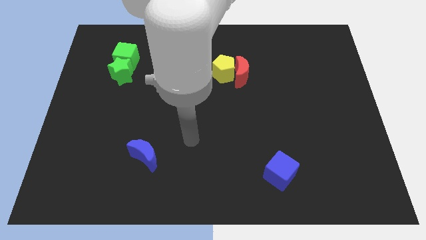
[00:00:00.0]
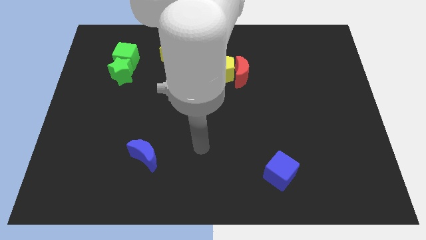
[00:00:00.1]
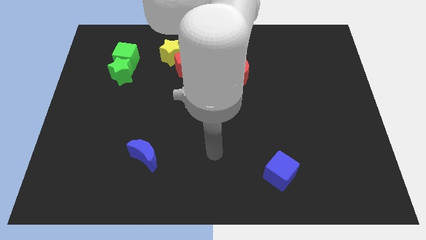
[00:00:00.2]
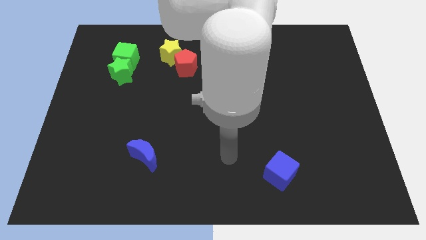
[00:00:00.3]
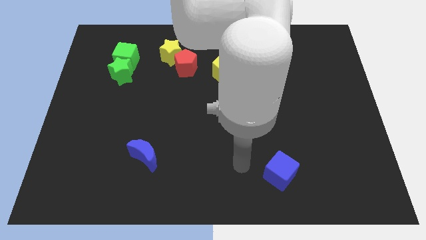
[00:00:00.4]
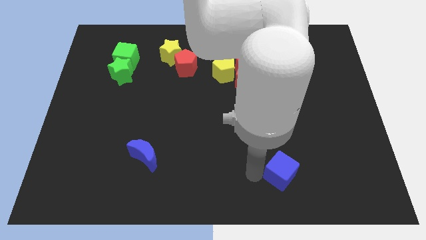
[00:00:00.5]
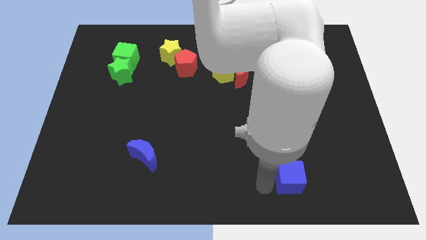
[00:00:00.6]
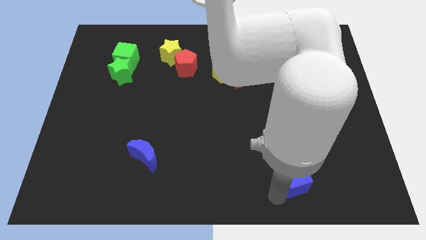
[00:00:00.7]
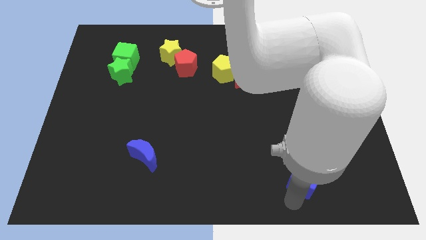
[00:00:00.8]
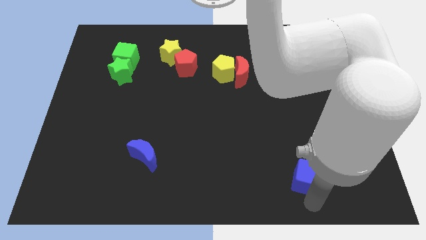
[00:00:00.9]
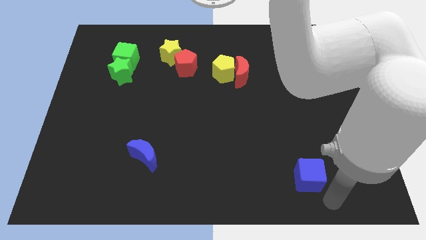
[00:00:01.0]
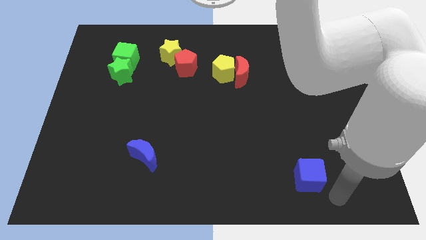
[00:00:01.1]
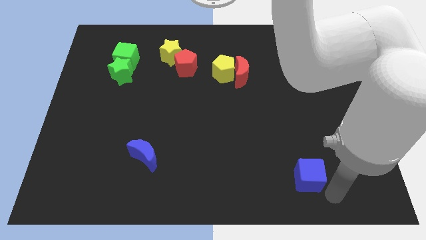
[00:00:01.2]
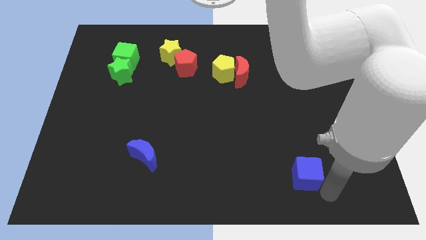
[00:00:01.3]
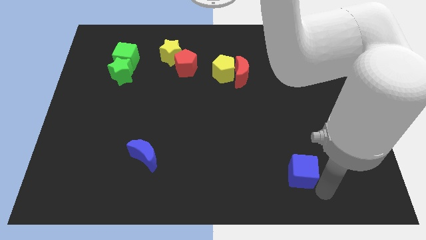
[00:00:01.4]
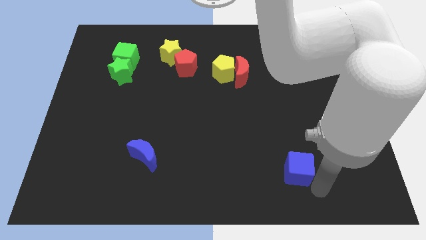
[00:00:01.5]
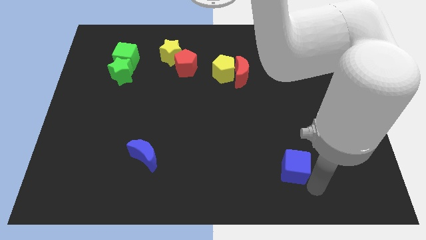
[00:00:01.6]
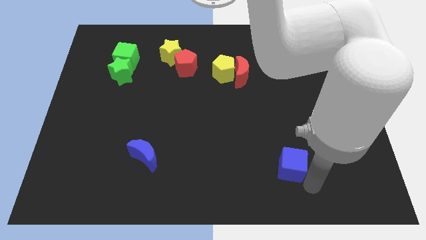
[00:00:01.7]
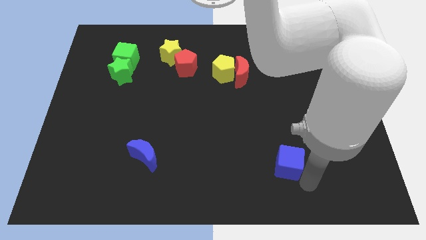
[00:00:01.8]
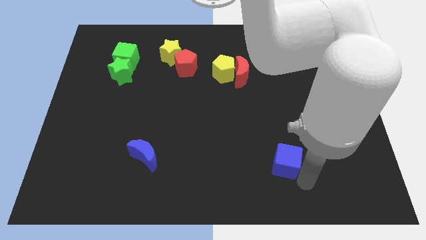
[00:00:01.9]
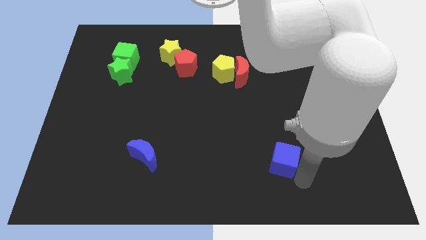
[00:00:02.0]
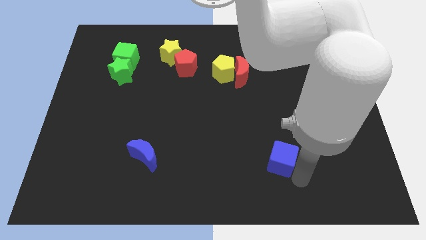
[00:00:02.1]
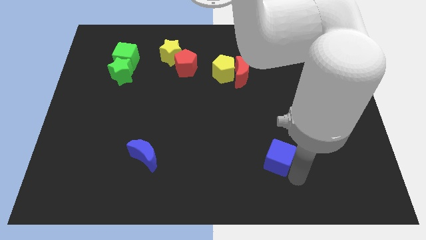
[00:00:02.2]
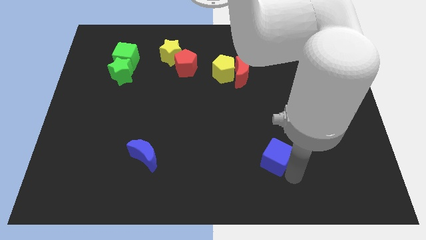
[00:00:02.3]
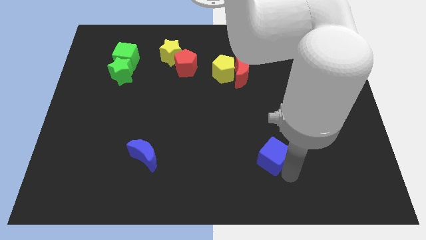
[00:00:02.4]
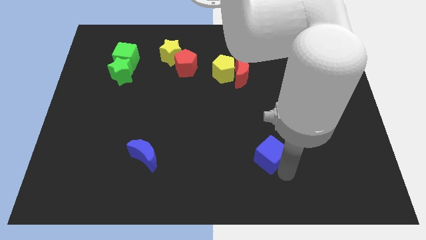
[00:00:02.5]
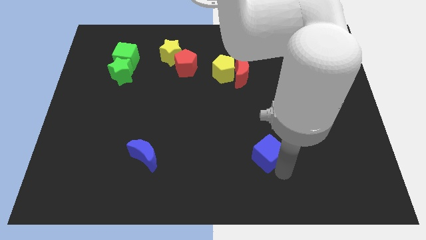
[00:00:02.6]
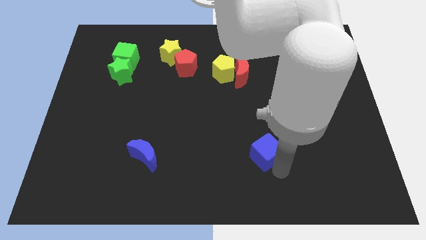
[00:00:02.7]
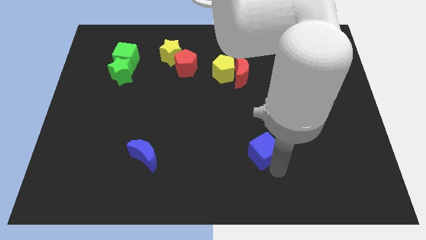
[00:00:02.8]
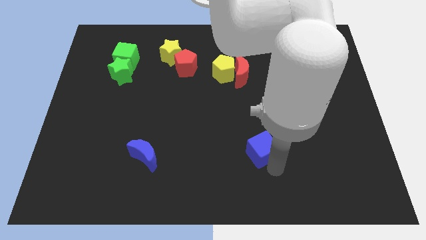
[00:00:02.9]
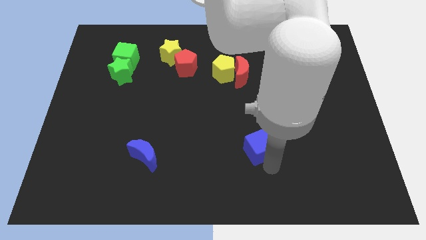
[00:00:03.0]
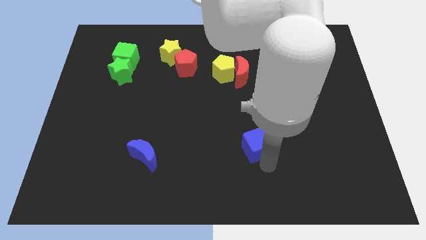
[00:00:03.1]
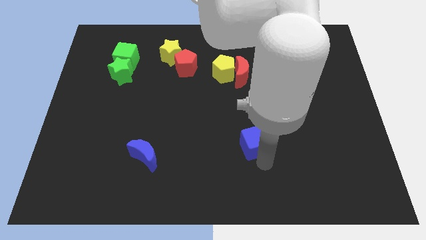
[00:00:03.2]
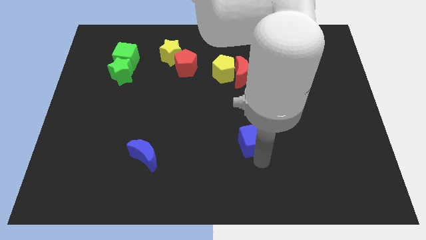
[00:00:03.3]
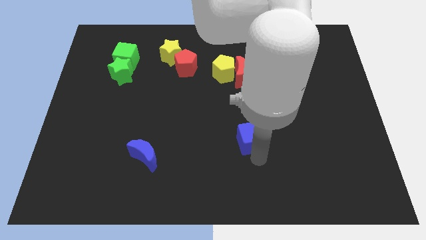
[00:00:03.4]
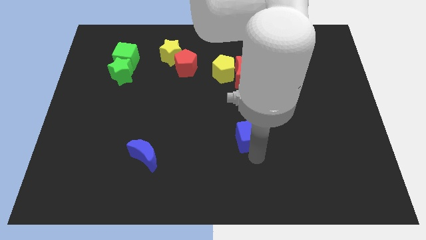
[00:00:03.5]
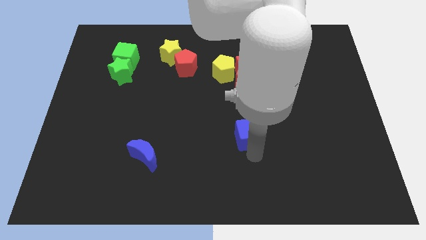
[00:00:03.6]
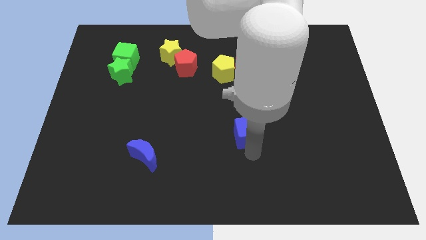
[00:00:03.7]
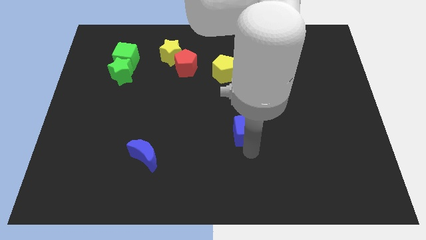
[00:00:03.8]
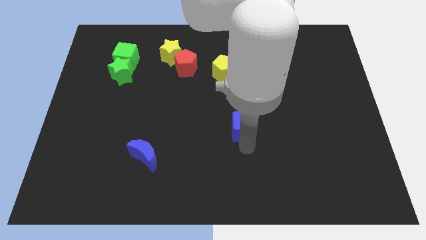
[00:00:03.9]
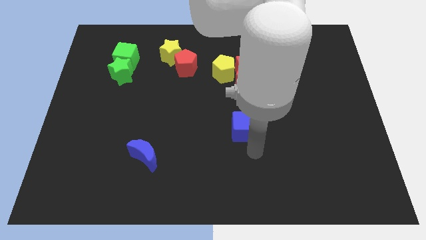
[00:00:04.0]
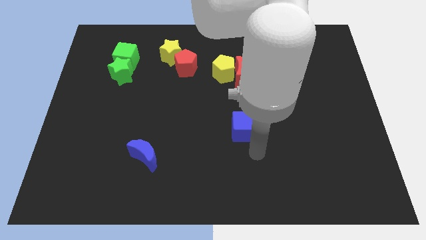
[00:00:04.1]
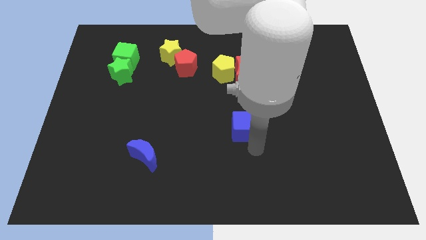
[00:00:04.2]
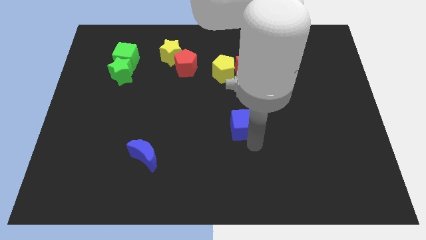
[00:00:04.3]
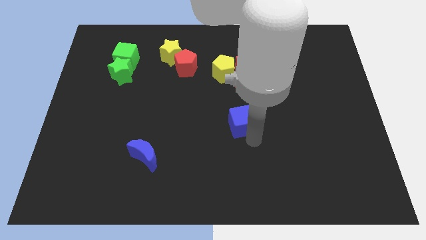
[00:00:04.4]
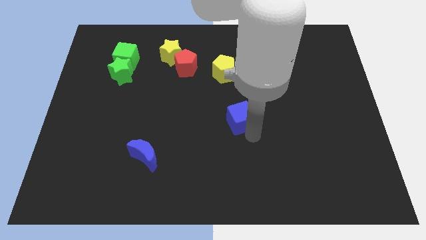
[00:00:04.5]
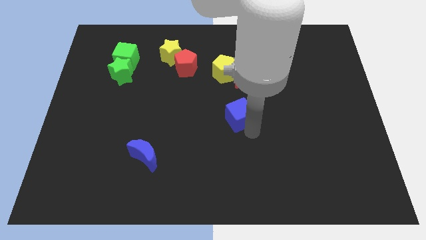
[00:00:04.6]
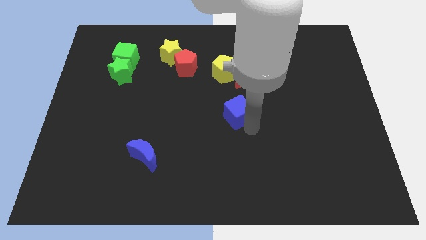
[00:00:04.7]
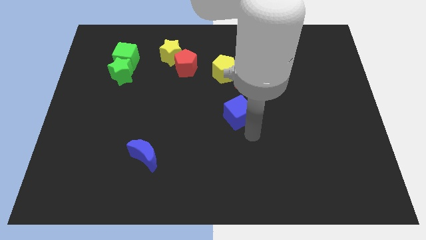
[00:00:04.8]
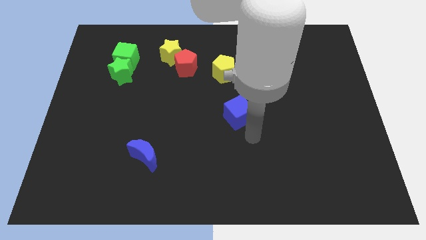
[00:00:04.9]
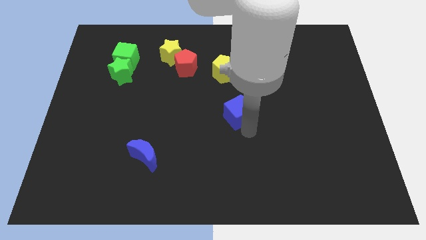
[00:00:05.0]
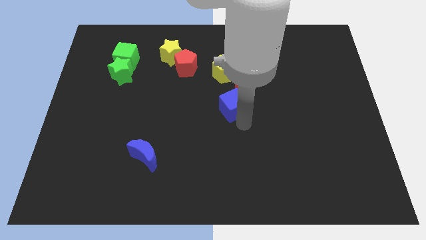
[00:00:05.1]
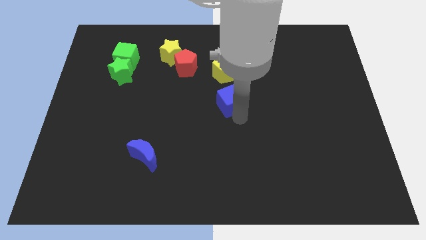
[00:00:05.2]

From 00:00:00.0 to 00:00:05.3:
push the blue cube diagonally down and to the left of the red moon
